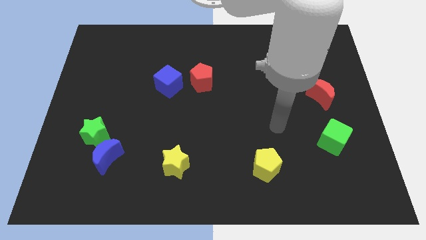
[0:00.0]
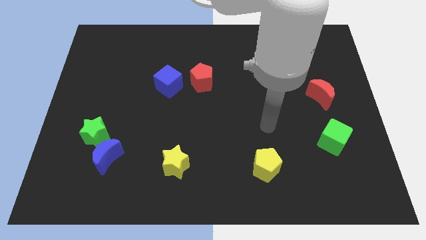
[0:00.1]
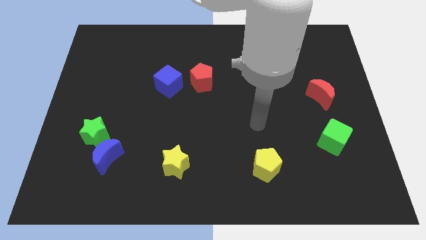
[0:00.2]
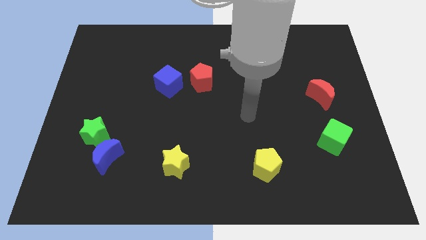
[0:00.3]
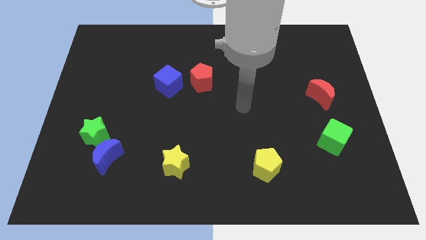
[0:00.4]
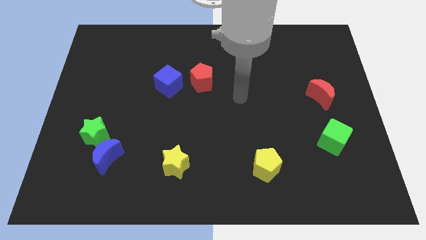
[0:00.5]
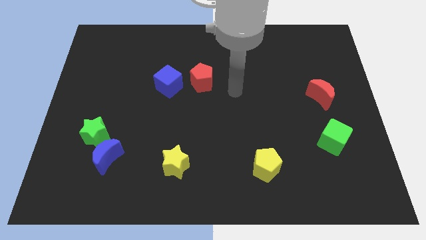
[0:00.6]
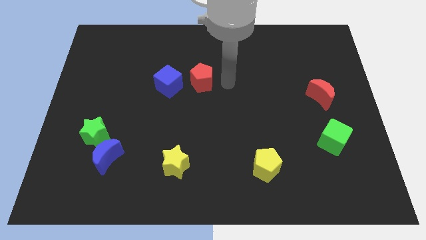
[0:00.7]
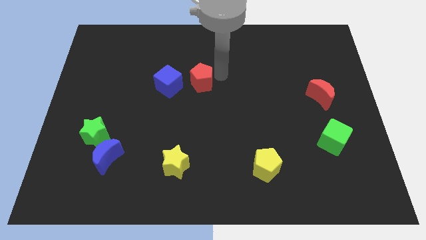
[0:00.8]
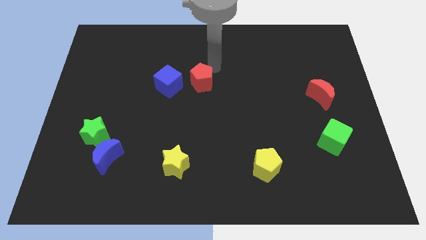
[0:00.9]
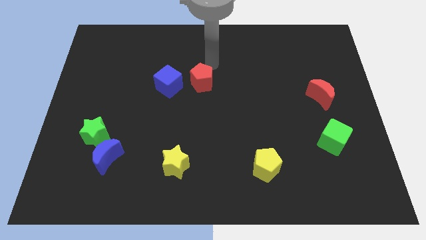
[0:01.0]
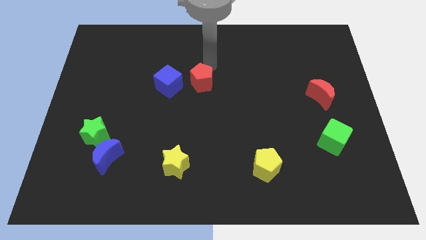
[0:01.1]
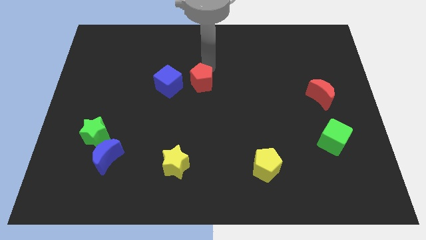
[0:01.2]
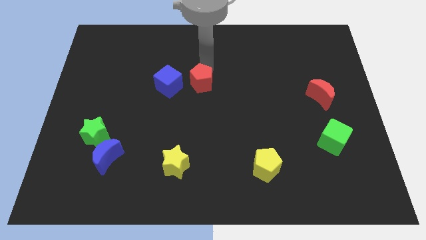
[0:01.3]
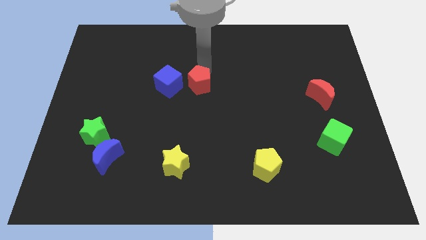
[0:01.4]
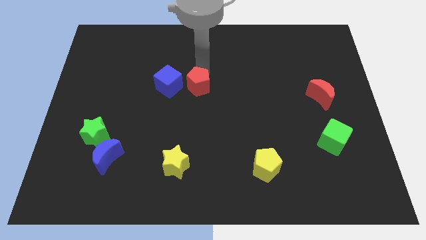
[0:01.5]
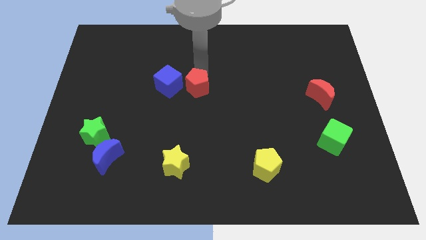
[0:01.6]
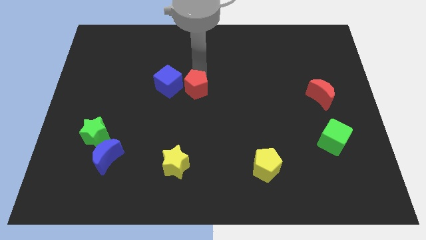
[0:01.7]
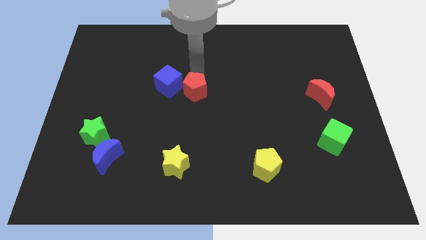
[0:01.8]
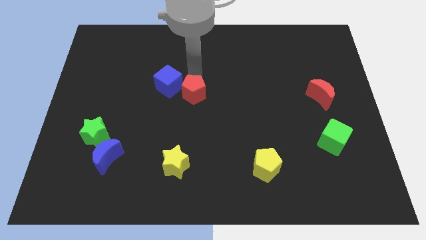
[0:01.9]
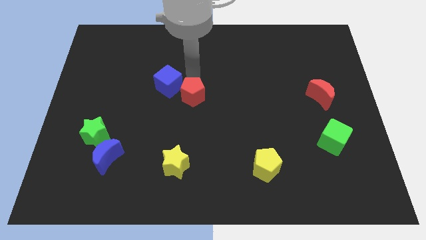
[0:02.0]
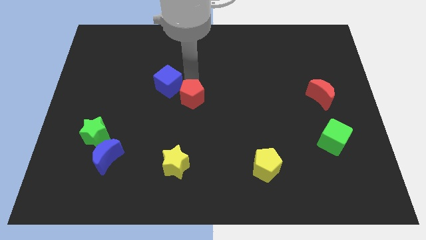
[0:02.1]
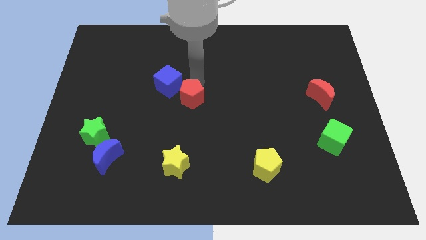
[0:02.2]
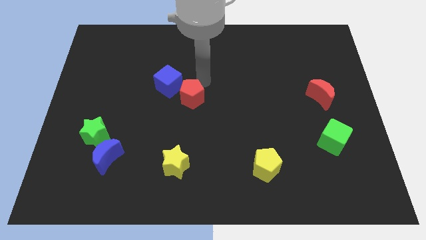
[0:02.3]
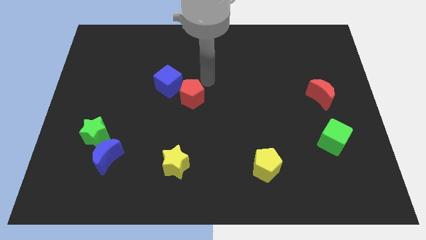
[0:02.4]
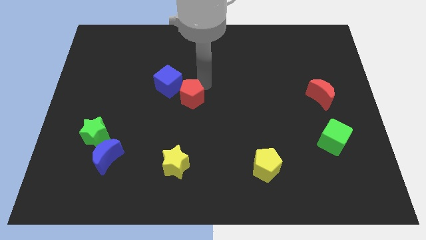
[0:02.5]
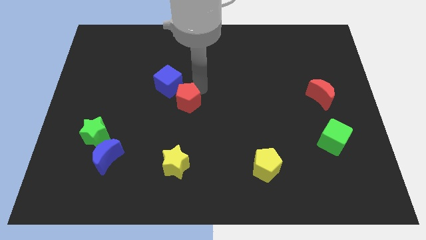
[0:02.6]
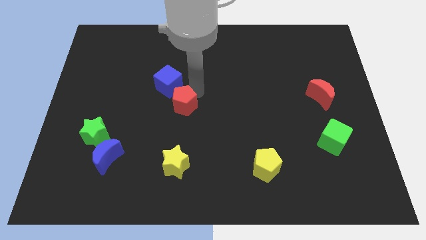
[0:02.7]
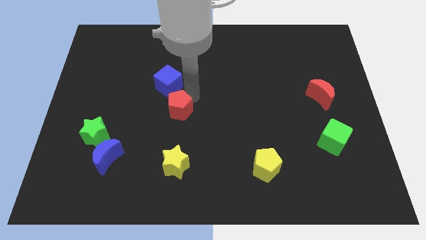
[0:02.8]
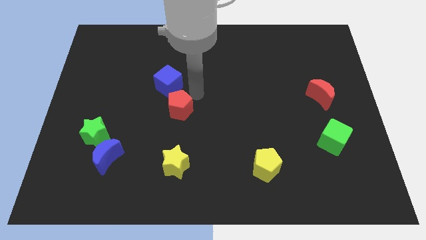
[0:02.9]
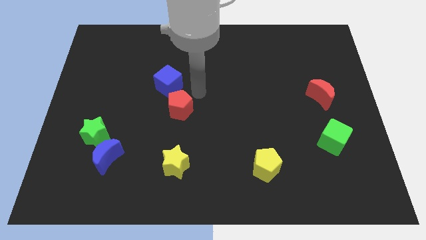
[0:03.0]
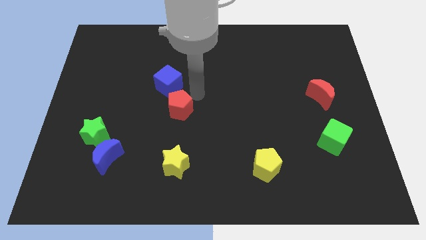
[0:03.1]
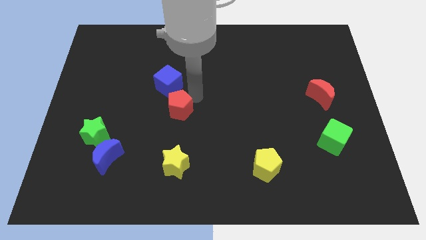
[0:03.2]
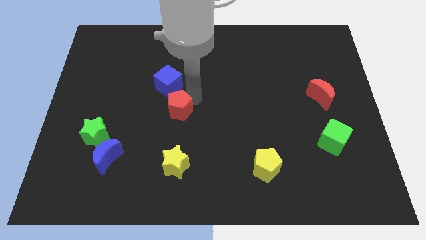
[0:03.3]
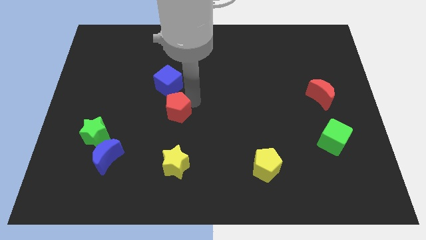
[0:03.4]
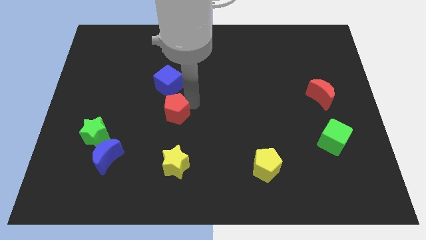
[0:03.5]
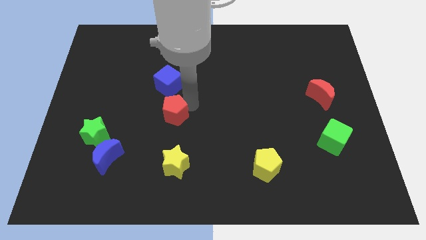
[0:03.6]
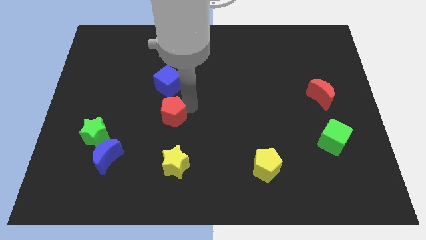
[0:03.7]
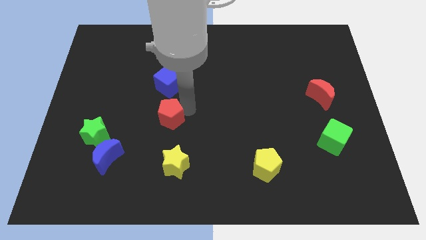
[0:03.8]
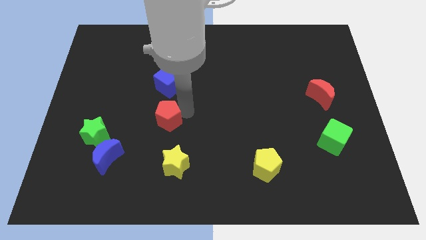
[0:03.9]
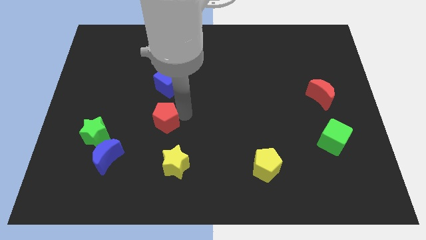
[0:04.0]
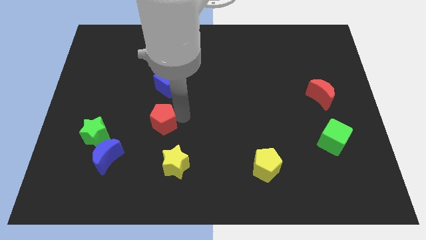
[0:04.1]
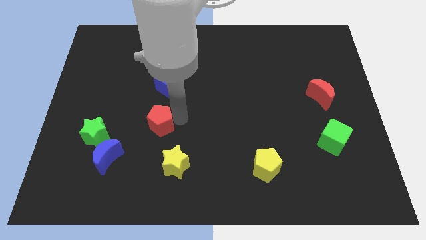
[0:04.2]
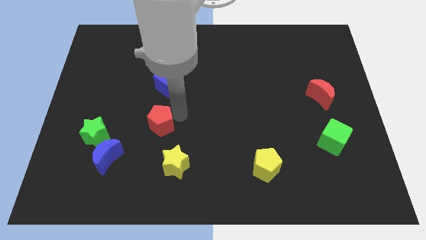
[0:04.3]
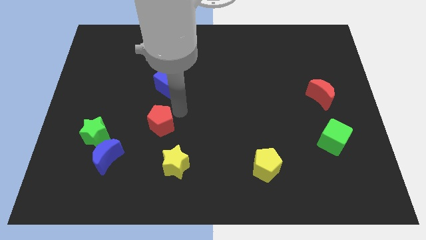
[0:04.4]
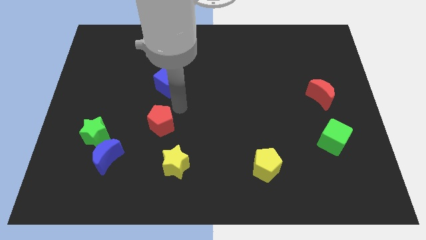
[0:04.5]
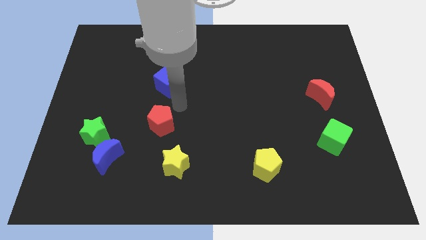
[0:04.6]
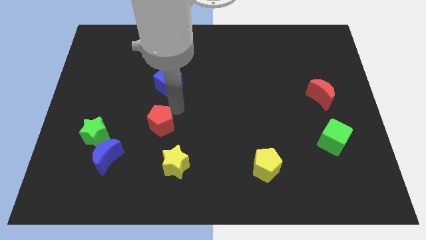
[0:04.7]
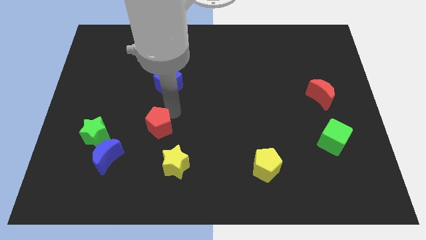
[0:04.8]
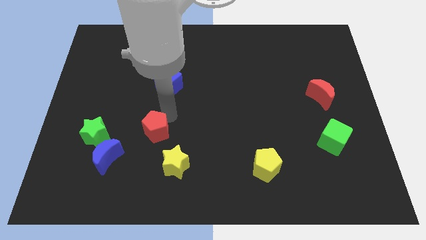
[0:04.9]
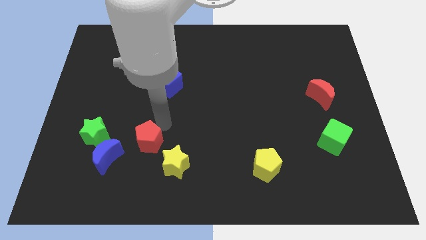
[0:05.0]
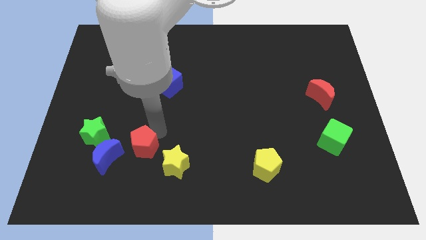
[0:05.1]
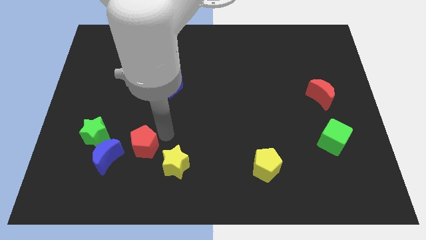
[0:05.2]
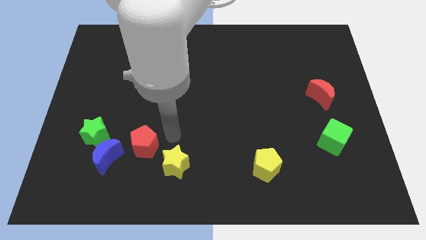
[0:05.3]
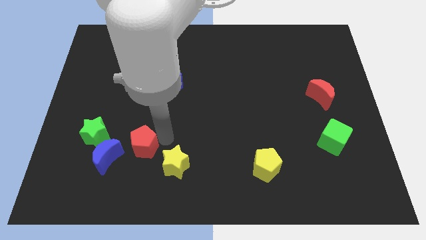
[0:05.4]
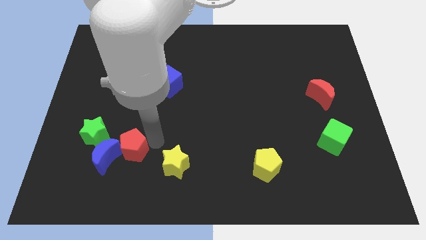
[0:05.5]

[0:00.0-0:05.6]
slide the red pentagon towards the blue moon

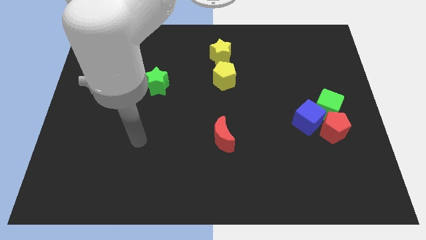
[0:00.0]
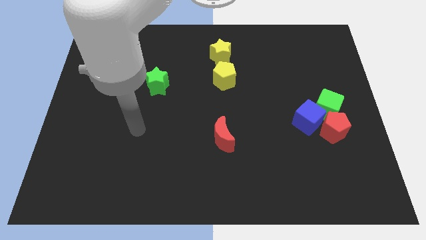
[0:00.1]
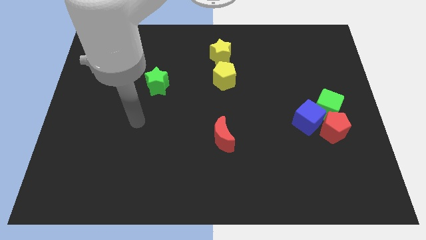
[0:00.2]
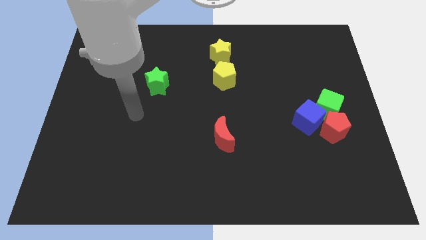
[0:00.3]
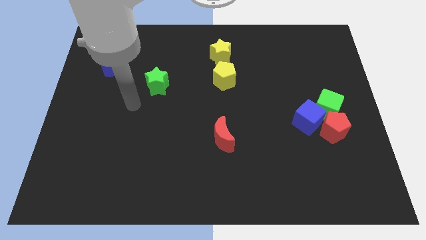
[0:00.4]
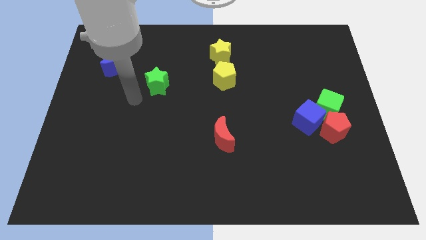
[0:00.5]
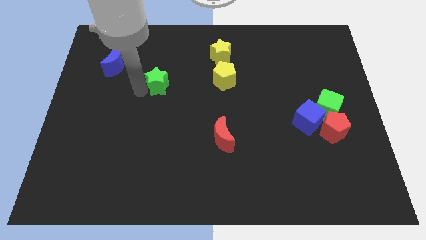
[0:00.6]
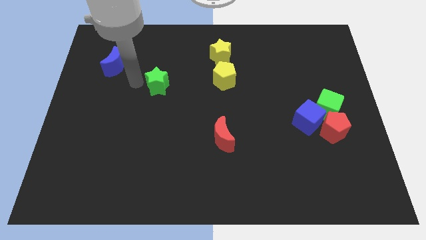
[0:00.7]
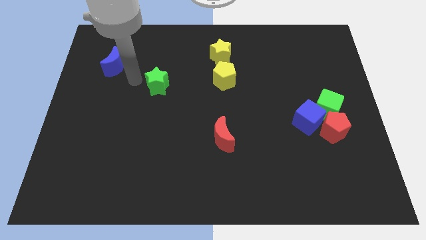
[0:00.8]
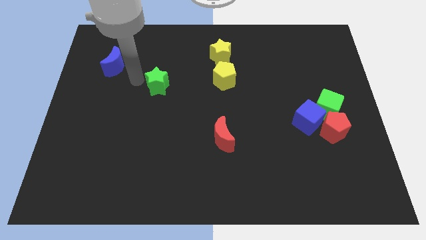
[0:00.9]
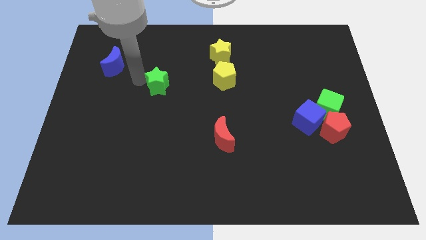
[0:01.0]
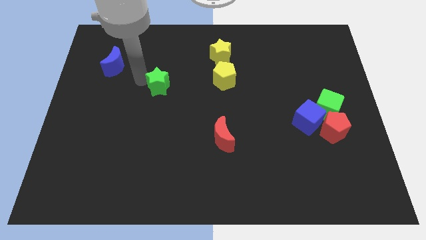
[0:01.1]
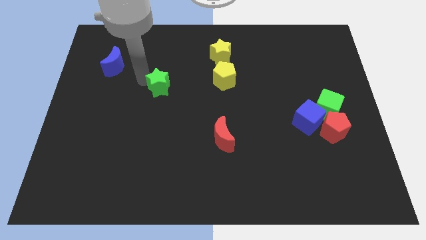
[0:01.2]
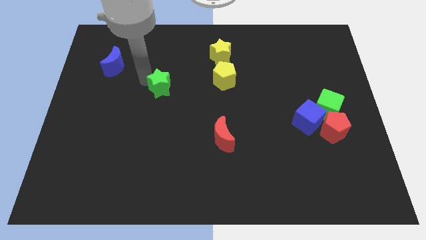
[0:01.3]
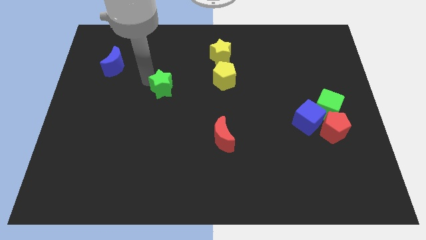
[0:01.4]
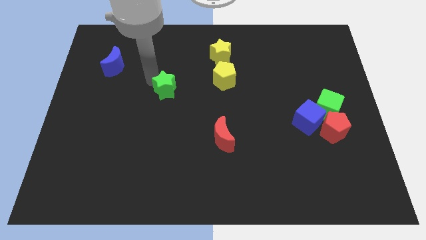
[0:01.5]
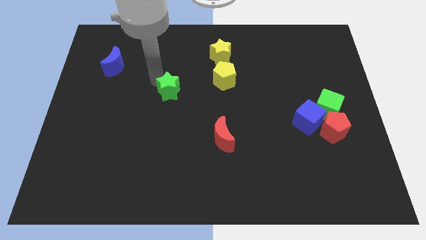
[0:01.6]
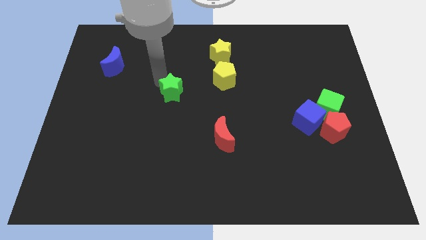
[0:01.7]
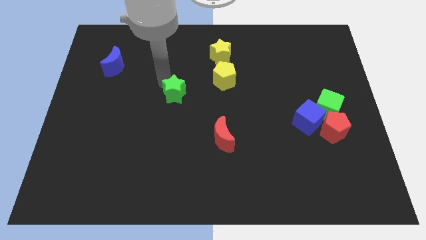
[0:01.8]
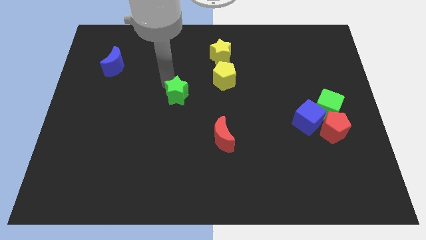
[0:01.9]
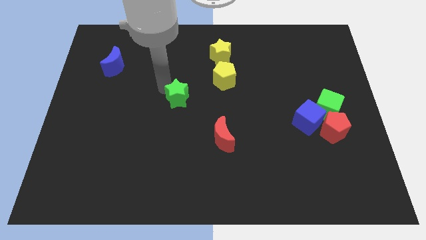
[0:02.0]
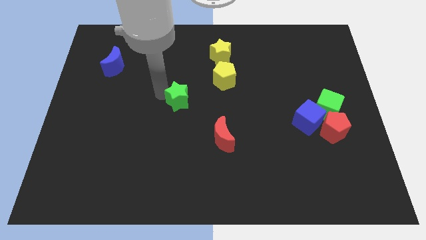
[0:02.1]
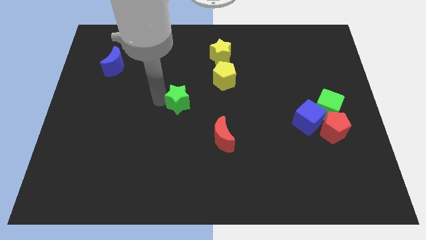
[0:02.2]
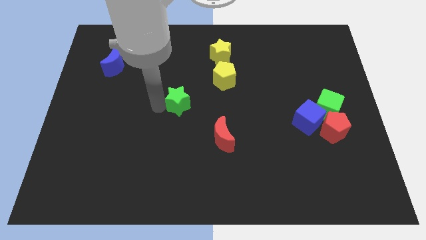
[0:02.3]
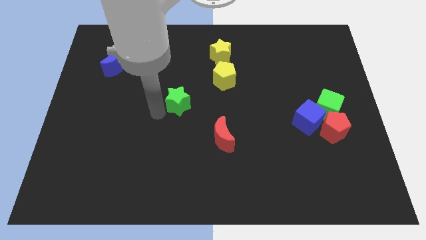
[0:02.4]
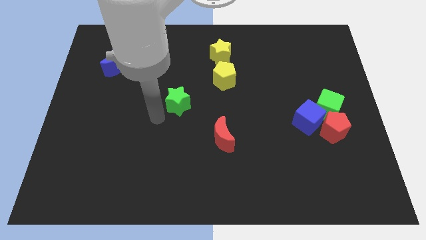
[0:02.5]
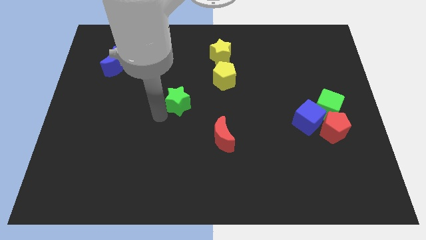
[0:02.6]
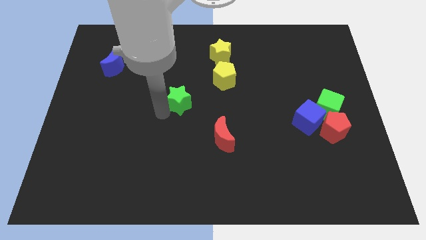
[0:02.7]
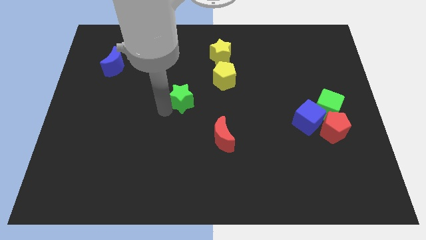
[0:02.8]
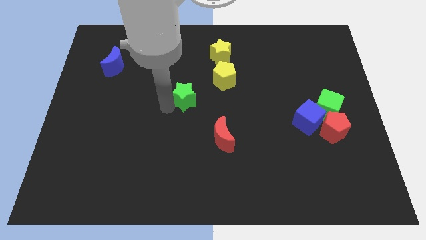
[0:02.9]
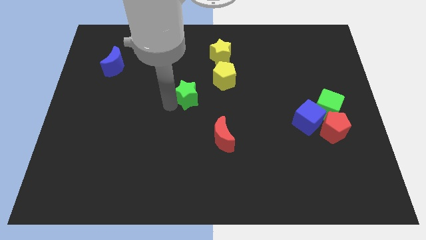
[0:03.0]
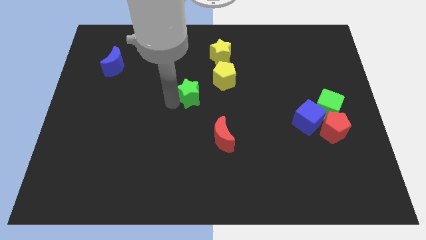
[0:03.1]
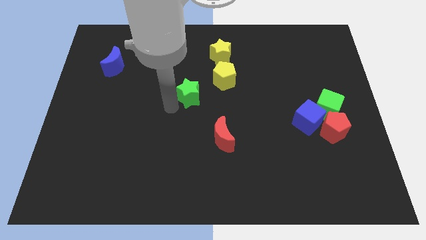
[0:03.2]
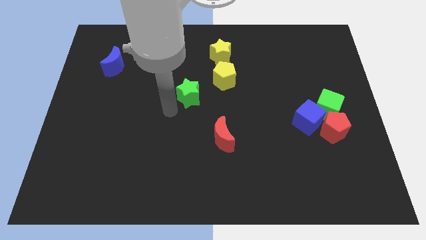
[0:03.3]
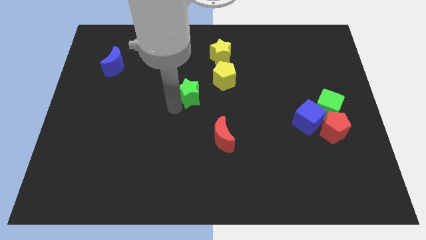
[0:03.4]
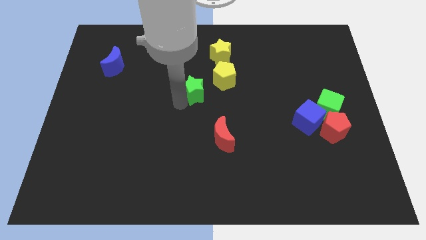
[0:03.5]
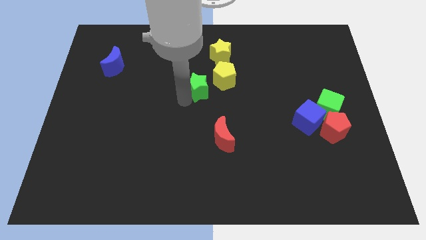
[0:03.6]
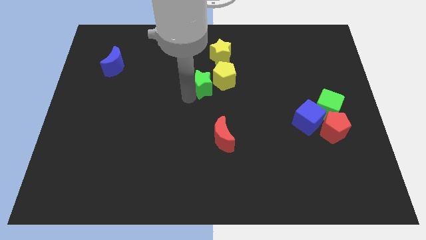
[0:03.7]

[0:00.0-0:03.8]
put the green star to the yellow pentagon
